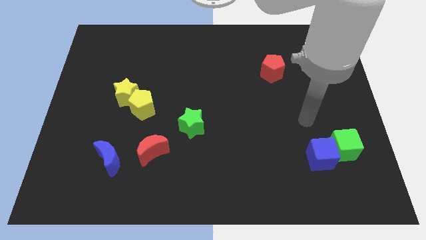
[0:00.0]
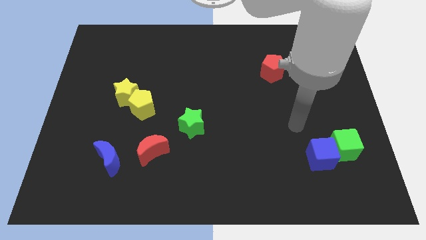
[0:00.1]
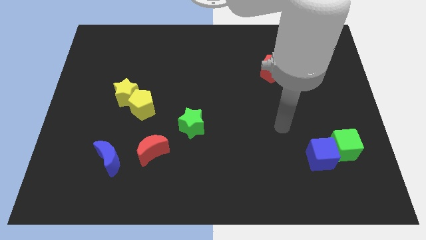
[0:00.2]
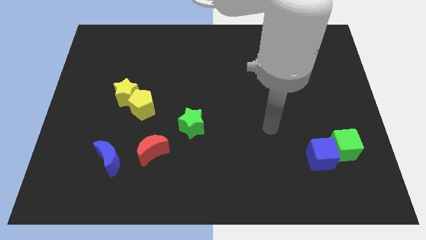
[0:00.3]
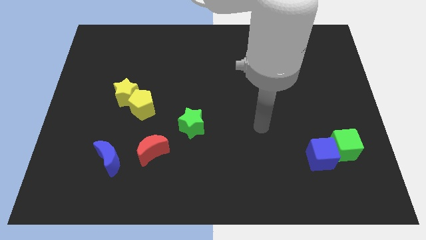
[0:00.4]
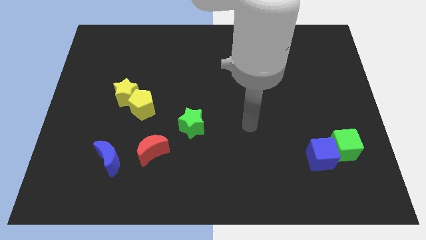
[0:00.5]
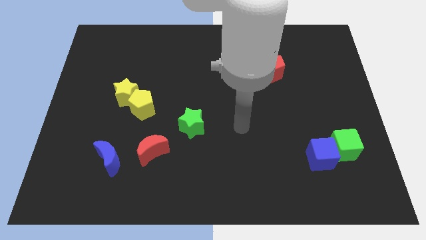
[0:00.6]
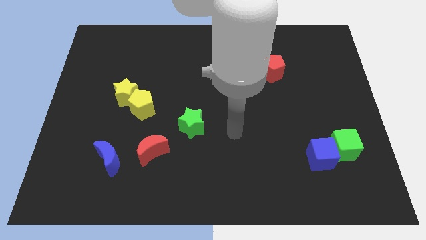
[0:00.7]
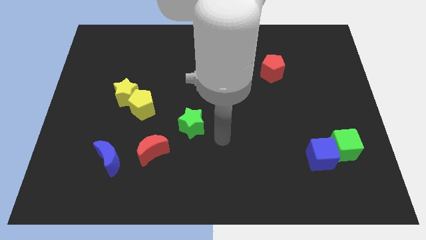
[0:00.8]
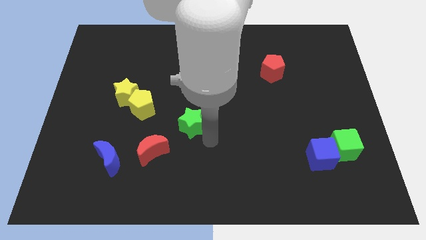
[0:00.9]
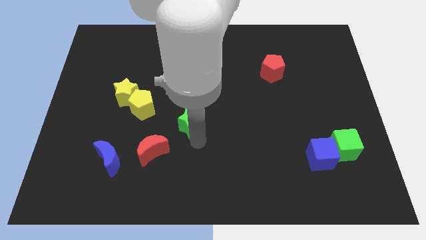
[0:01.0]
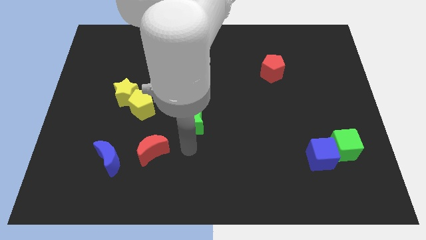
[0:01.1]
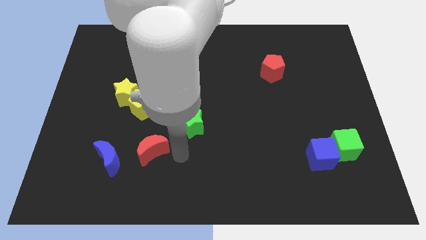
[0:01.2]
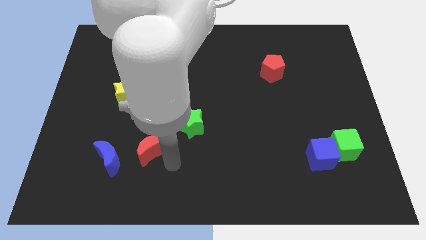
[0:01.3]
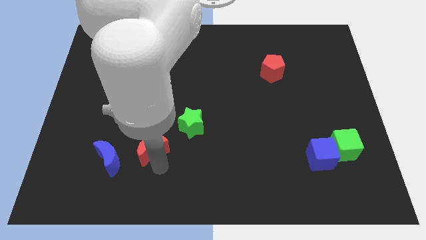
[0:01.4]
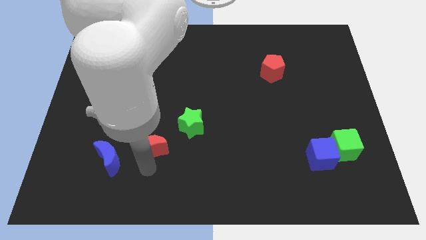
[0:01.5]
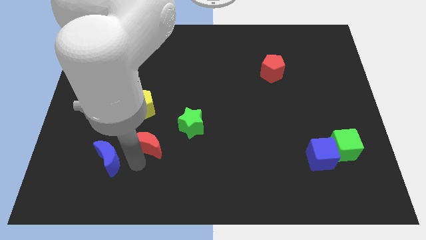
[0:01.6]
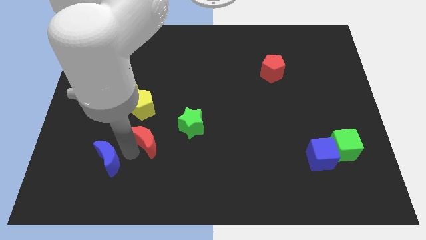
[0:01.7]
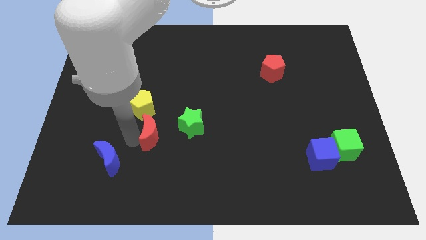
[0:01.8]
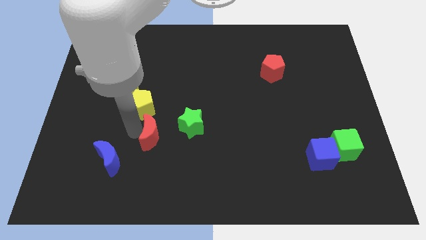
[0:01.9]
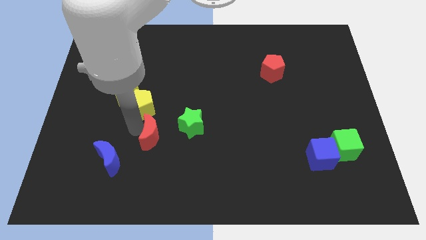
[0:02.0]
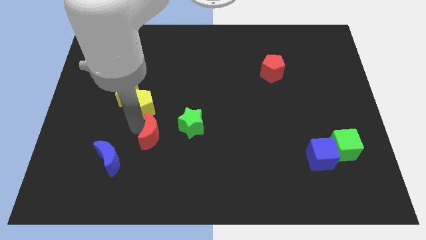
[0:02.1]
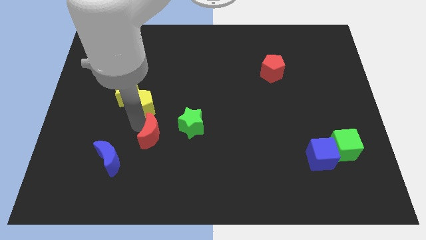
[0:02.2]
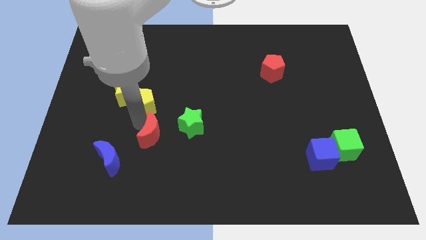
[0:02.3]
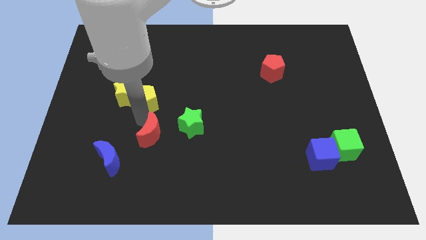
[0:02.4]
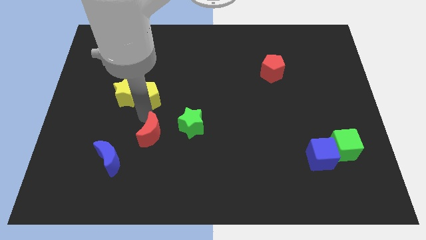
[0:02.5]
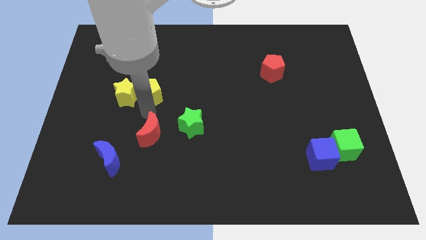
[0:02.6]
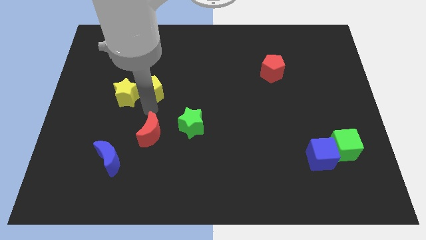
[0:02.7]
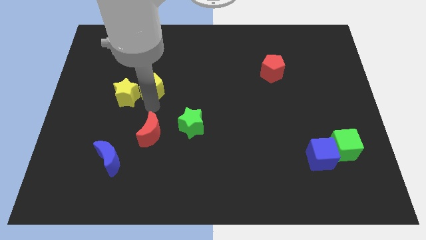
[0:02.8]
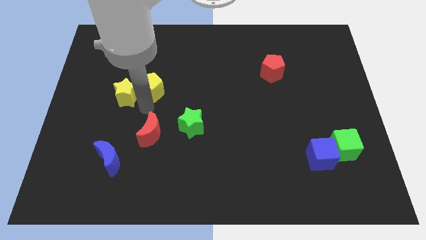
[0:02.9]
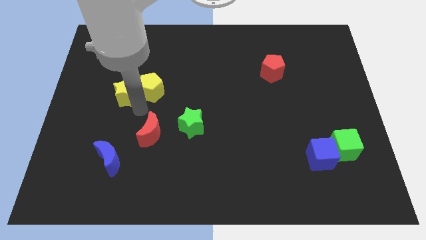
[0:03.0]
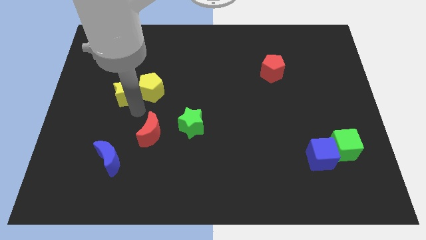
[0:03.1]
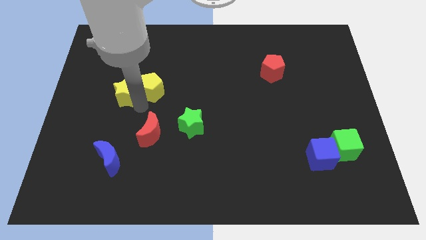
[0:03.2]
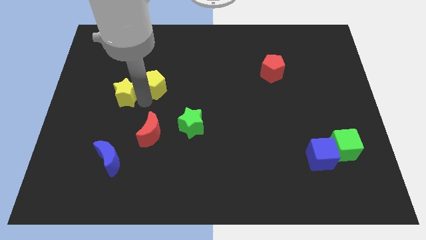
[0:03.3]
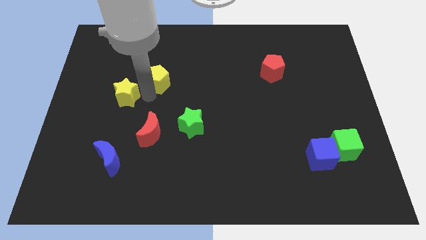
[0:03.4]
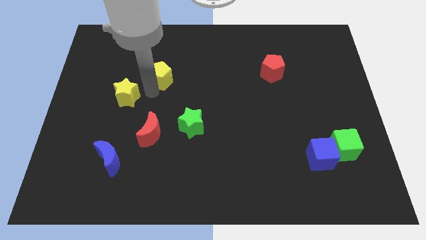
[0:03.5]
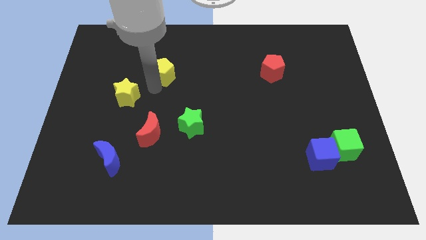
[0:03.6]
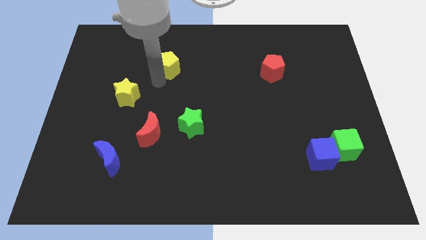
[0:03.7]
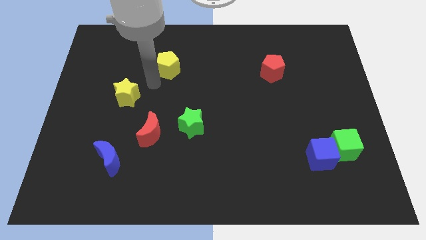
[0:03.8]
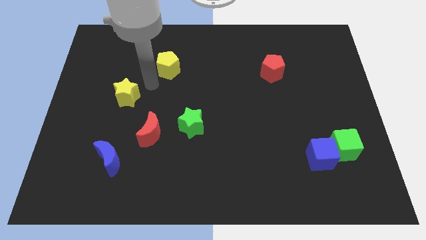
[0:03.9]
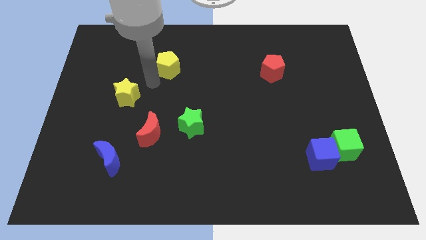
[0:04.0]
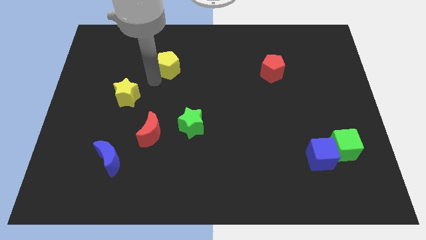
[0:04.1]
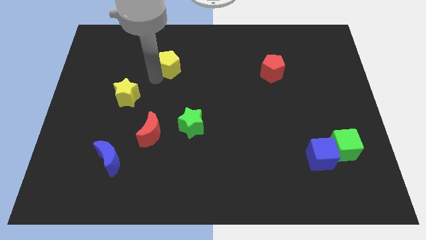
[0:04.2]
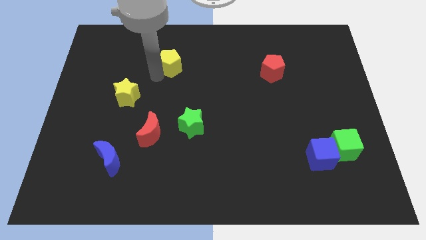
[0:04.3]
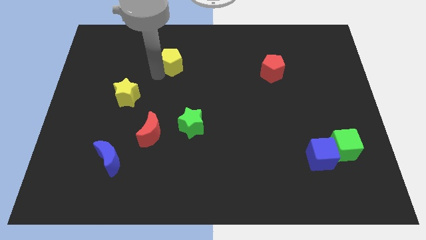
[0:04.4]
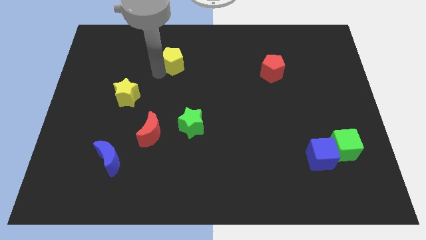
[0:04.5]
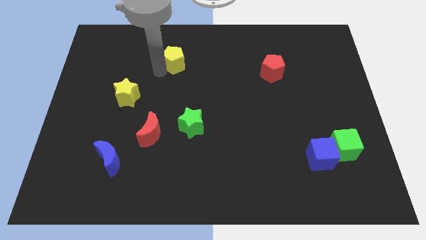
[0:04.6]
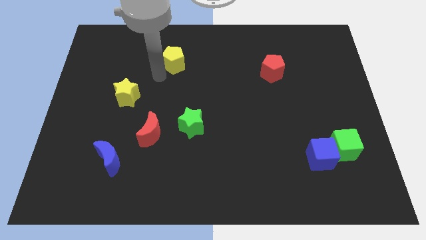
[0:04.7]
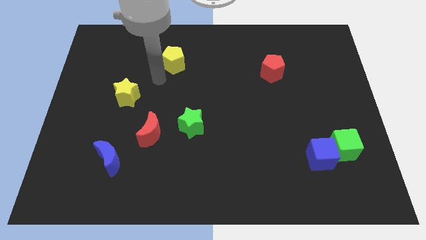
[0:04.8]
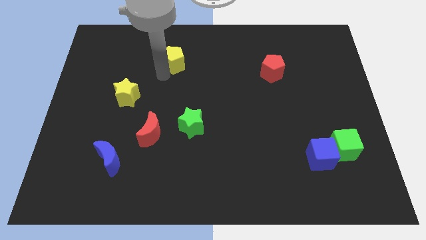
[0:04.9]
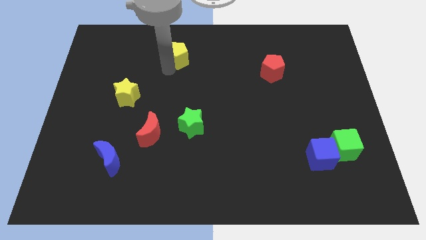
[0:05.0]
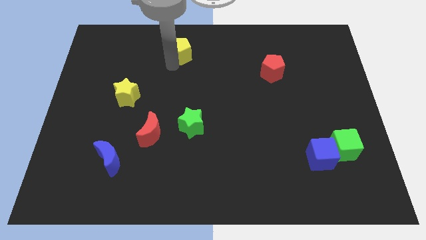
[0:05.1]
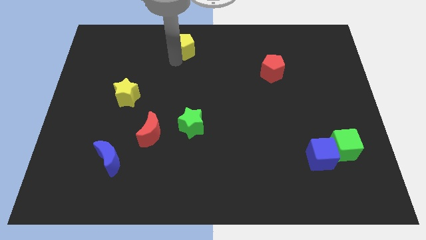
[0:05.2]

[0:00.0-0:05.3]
slide the yellow pentagon to the top side
